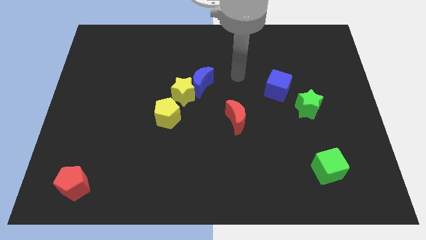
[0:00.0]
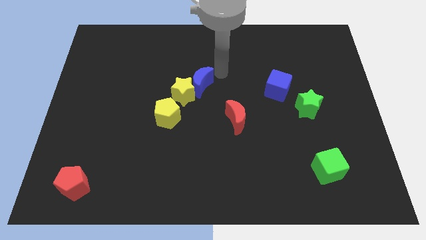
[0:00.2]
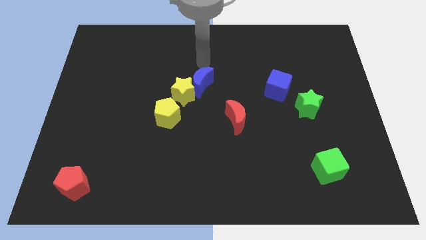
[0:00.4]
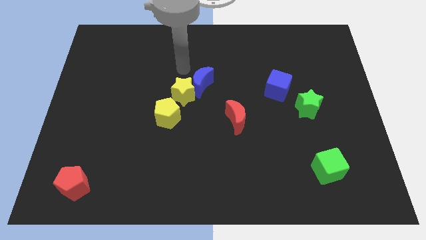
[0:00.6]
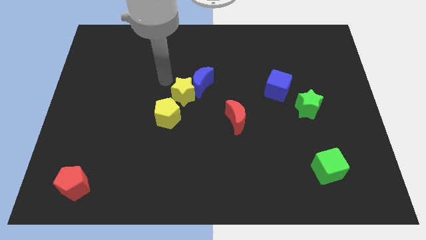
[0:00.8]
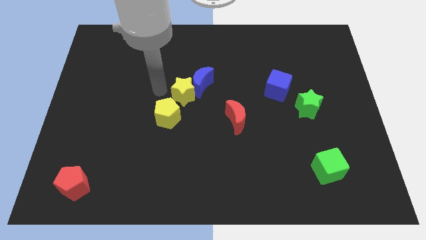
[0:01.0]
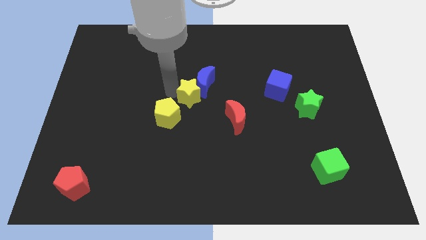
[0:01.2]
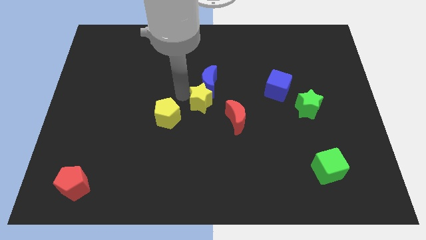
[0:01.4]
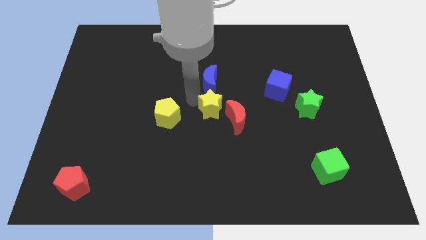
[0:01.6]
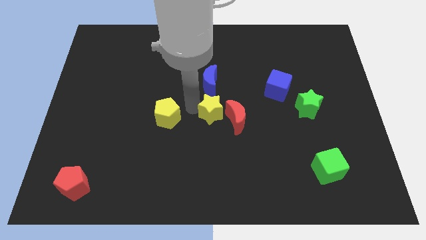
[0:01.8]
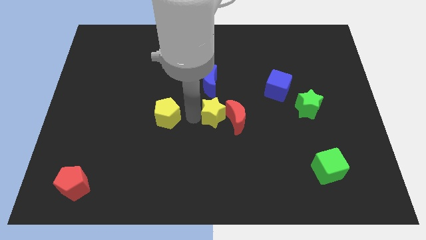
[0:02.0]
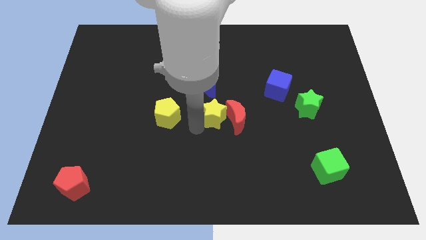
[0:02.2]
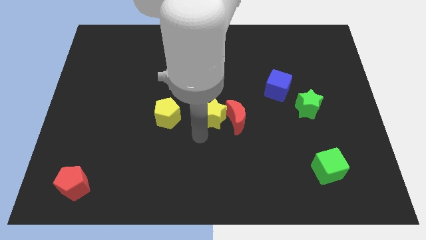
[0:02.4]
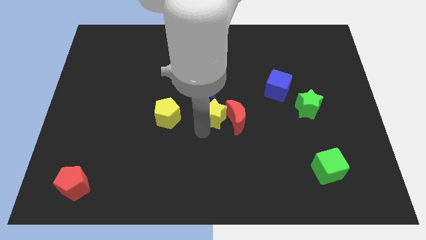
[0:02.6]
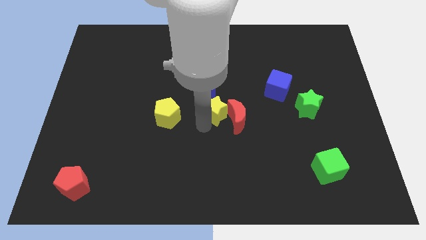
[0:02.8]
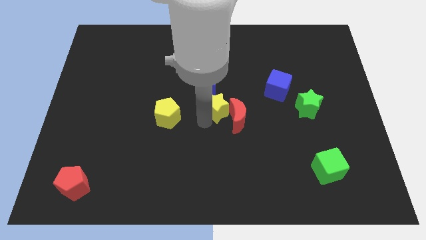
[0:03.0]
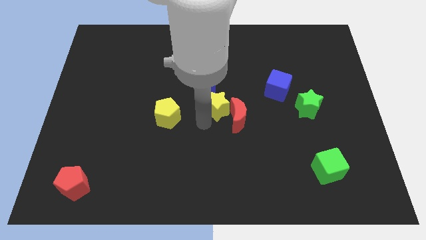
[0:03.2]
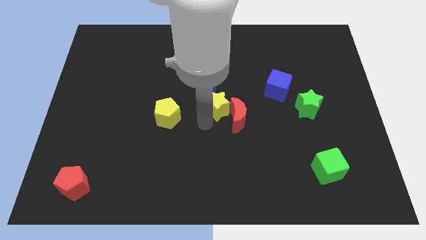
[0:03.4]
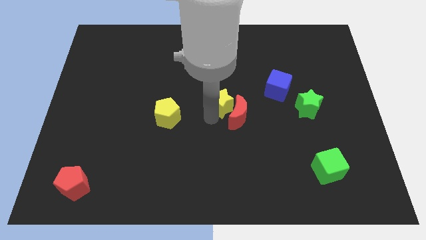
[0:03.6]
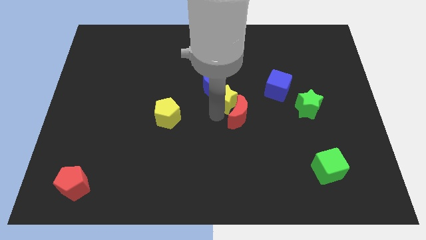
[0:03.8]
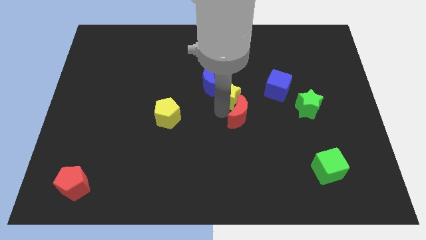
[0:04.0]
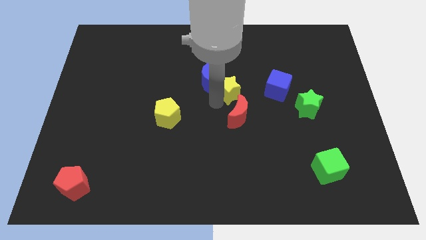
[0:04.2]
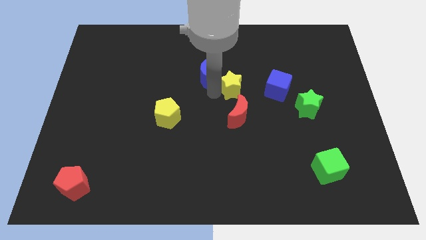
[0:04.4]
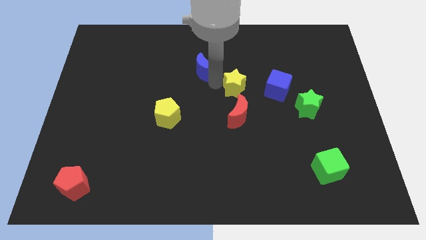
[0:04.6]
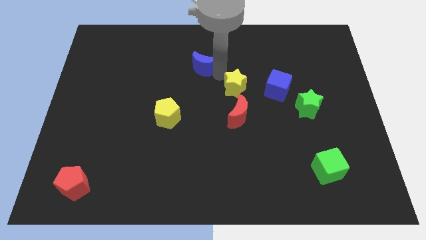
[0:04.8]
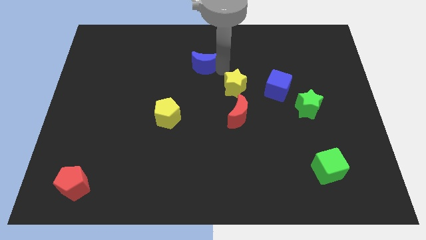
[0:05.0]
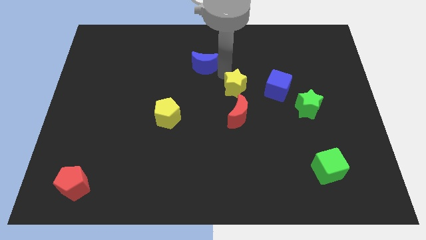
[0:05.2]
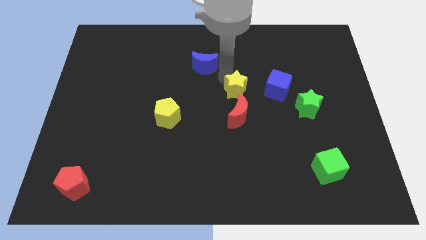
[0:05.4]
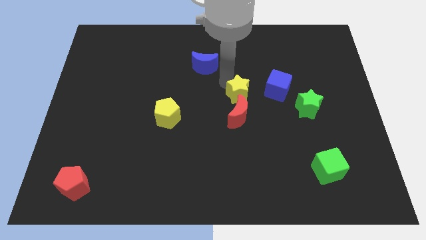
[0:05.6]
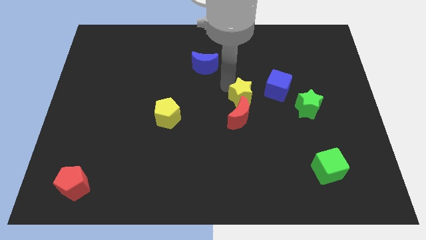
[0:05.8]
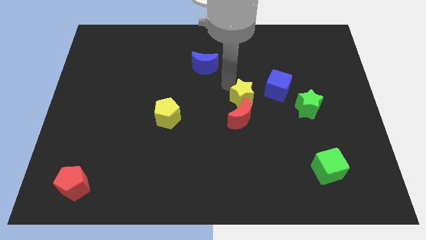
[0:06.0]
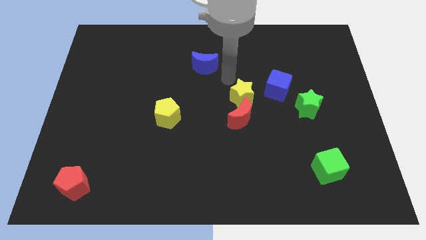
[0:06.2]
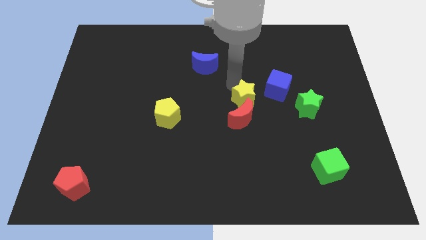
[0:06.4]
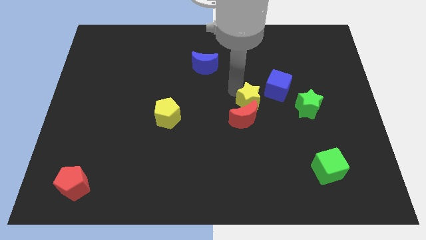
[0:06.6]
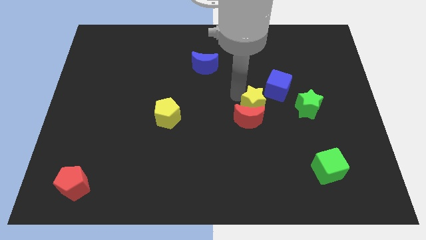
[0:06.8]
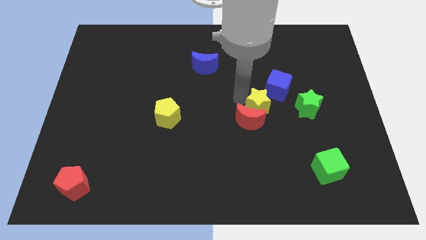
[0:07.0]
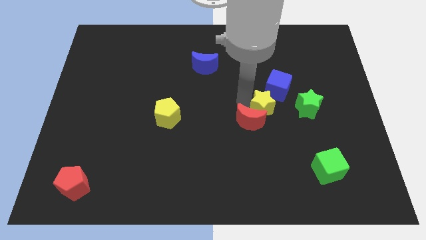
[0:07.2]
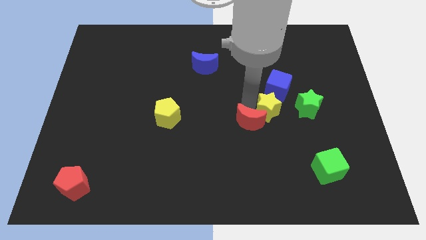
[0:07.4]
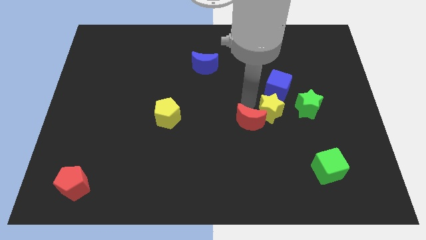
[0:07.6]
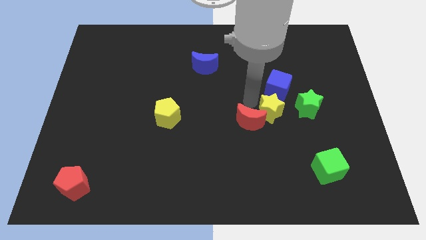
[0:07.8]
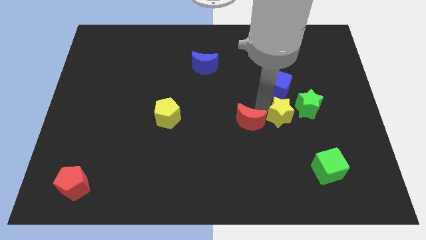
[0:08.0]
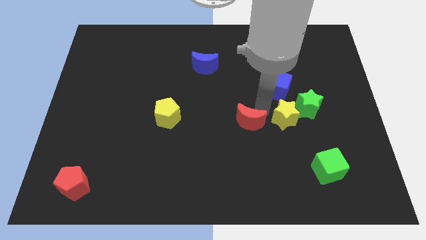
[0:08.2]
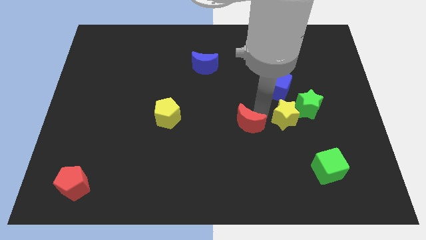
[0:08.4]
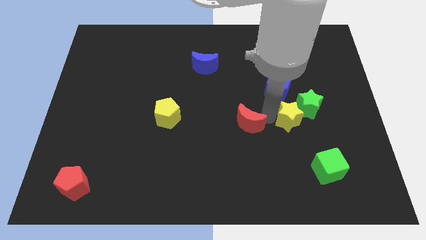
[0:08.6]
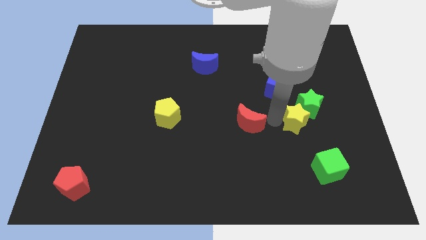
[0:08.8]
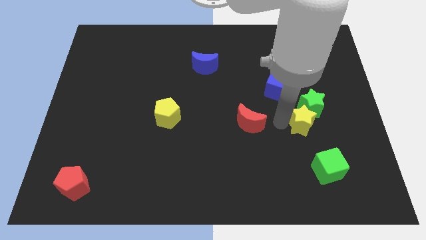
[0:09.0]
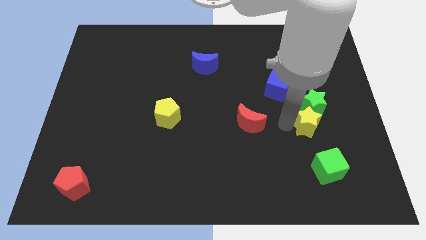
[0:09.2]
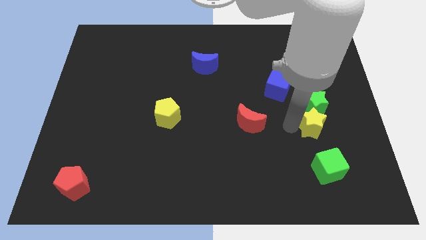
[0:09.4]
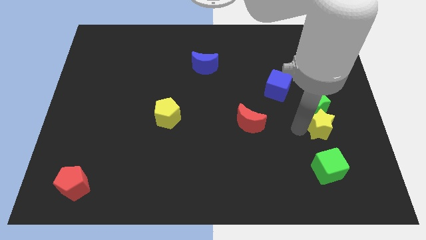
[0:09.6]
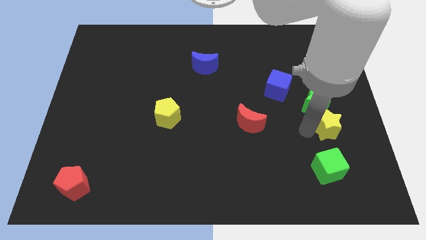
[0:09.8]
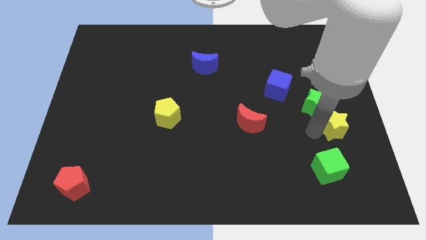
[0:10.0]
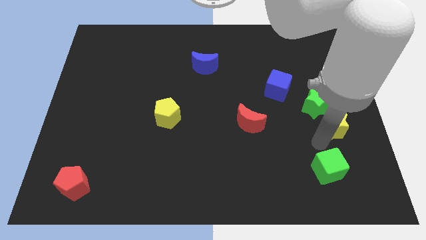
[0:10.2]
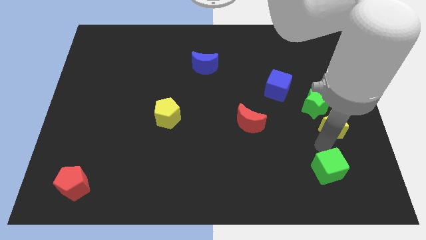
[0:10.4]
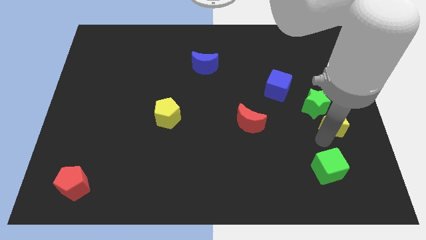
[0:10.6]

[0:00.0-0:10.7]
put the yellow star to the right side of the board

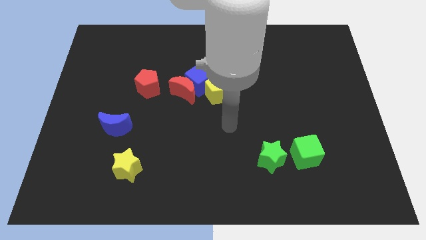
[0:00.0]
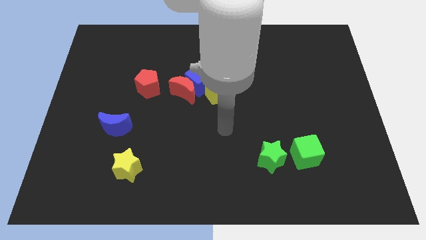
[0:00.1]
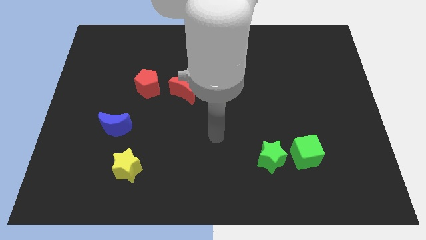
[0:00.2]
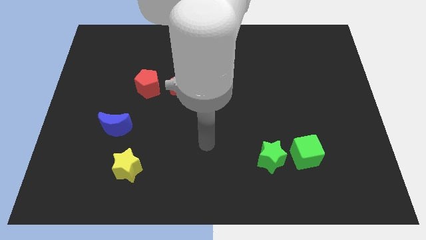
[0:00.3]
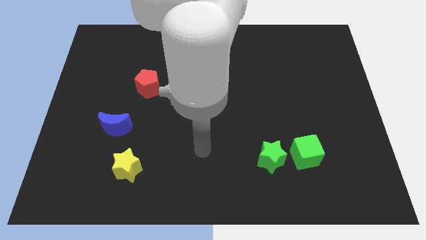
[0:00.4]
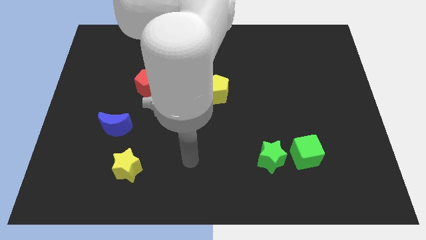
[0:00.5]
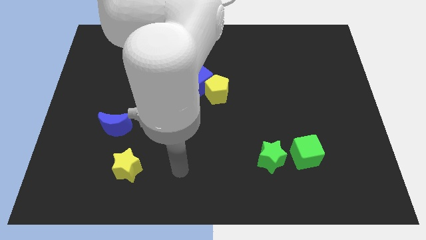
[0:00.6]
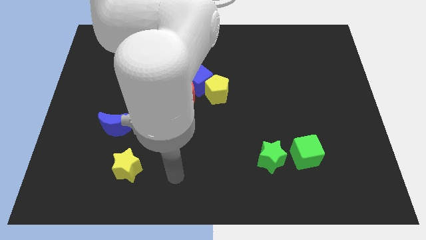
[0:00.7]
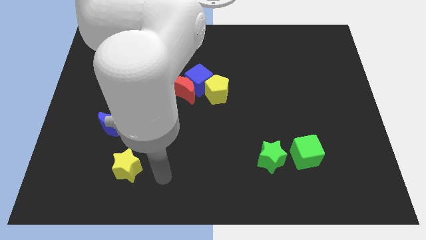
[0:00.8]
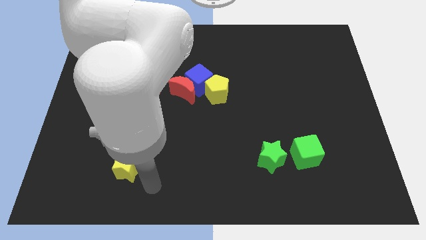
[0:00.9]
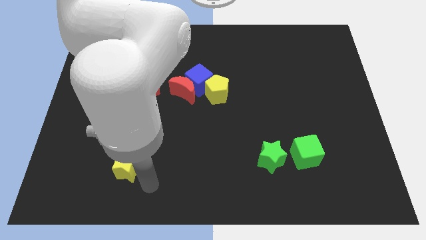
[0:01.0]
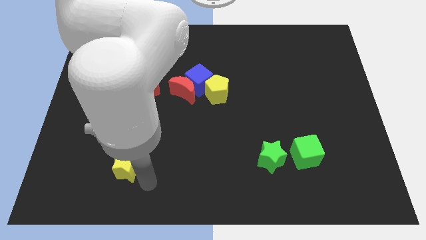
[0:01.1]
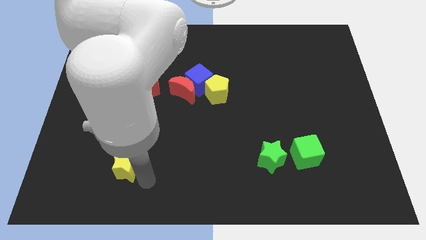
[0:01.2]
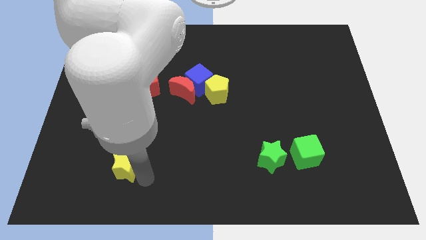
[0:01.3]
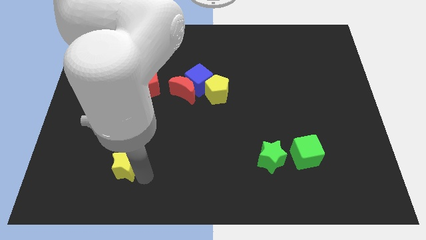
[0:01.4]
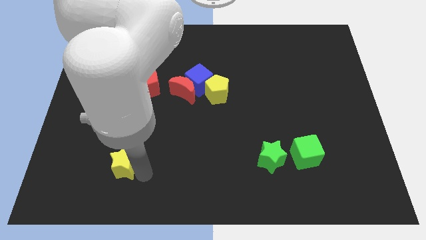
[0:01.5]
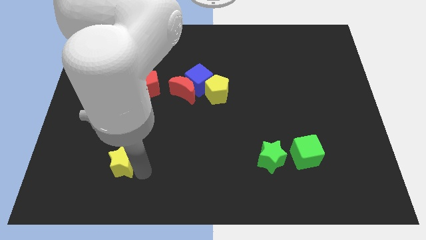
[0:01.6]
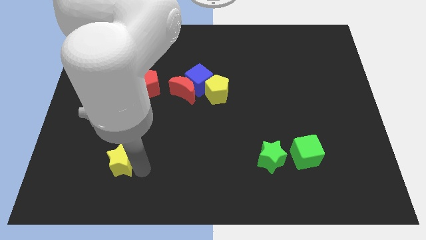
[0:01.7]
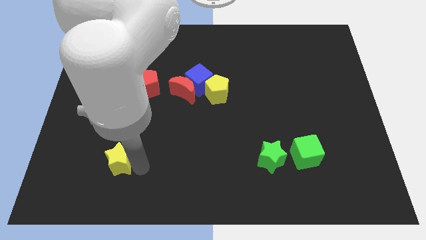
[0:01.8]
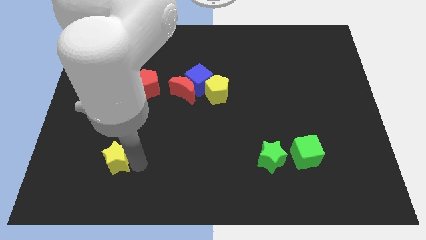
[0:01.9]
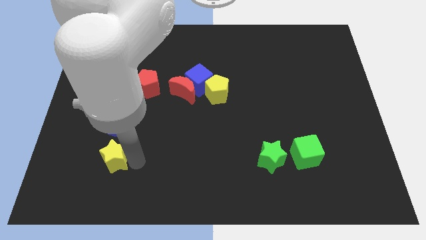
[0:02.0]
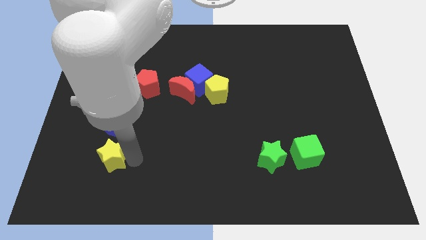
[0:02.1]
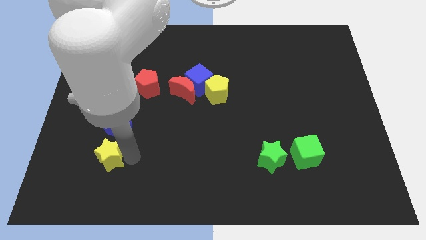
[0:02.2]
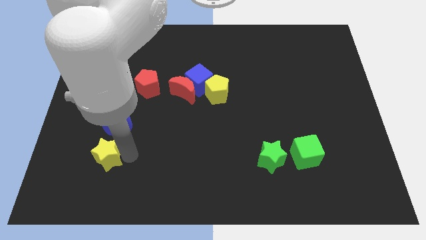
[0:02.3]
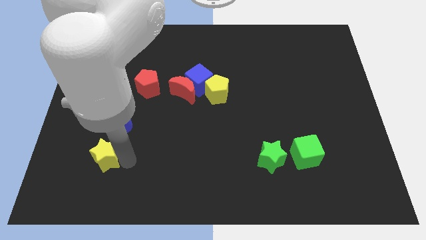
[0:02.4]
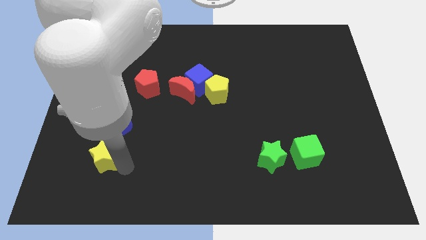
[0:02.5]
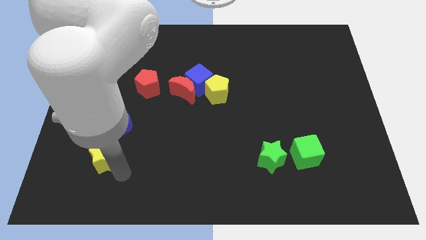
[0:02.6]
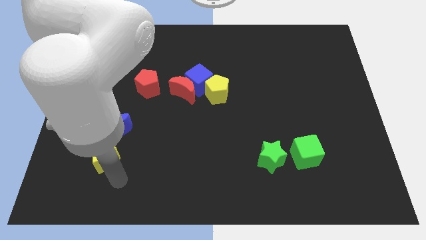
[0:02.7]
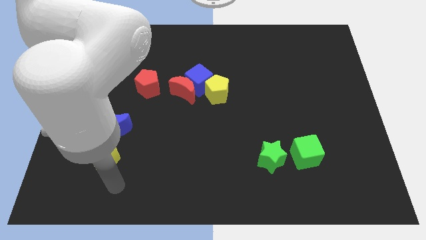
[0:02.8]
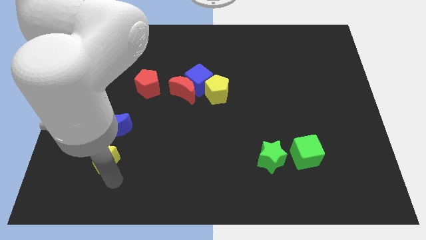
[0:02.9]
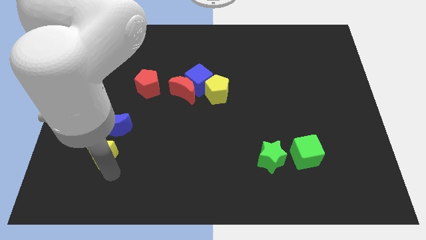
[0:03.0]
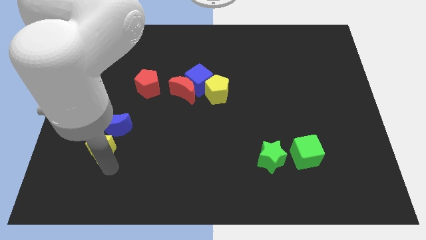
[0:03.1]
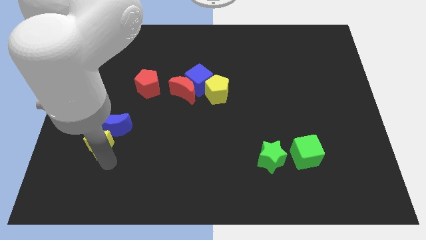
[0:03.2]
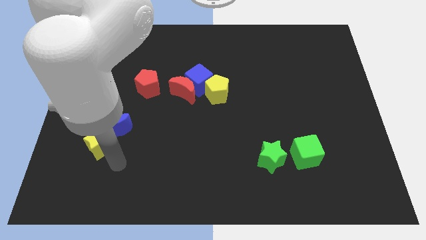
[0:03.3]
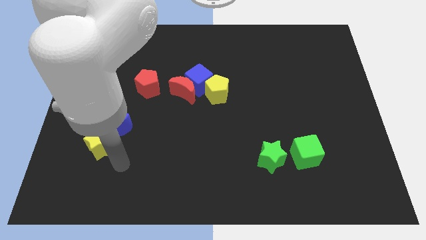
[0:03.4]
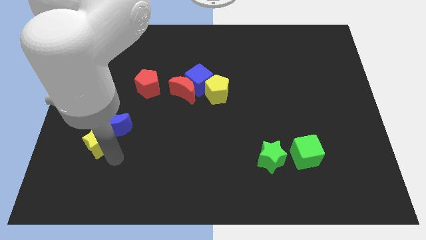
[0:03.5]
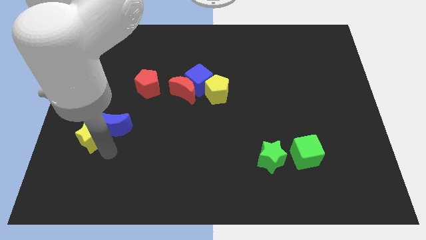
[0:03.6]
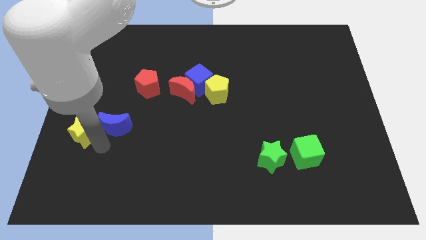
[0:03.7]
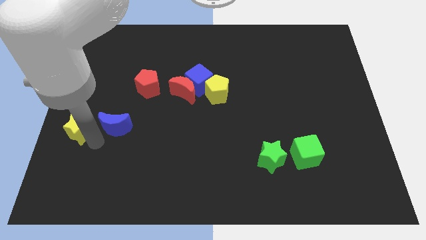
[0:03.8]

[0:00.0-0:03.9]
put the yellow star to the left side
